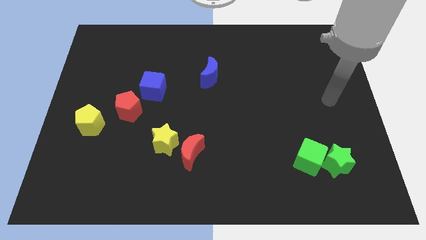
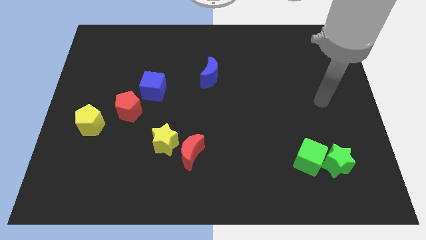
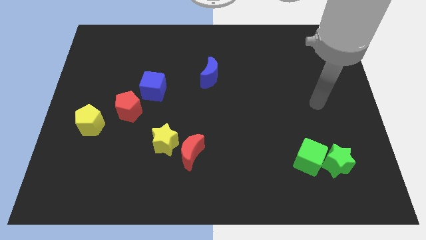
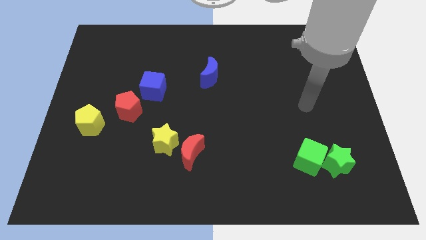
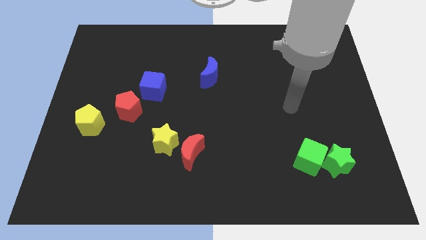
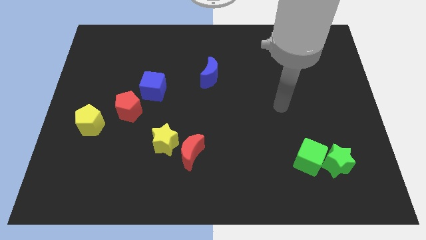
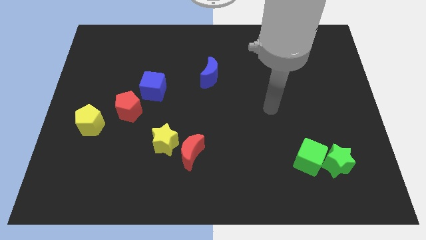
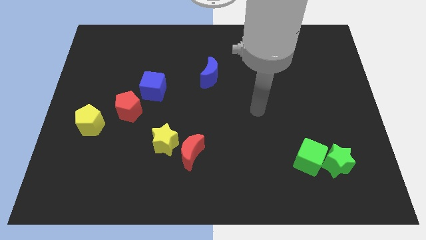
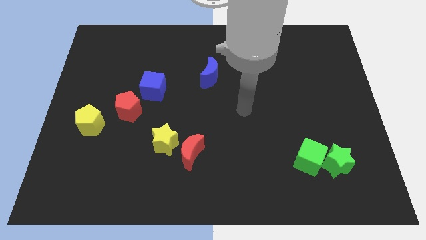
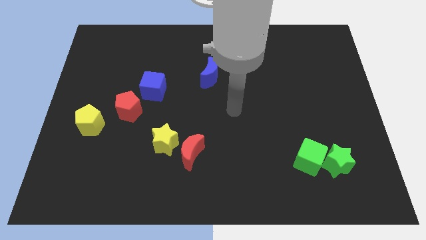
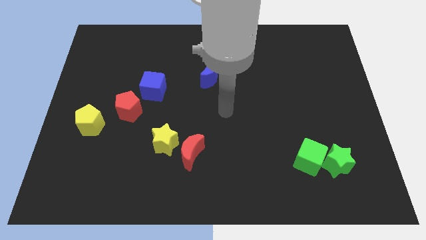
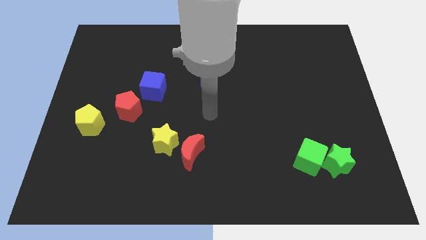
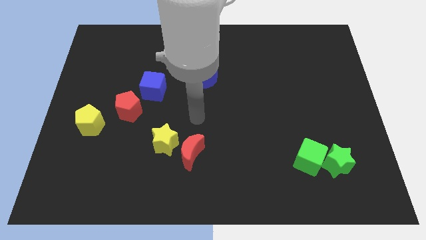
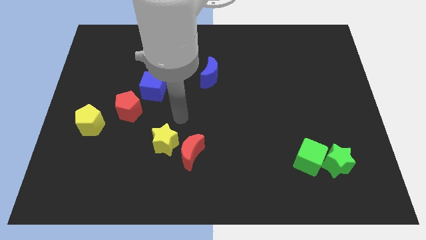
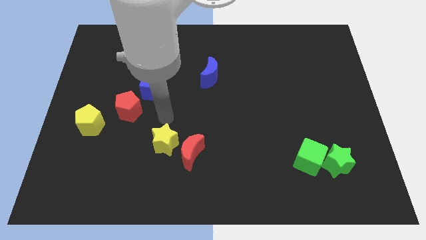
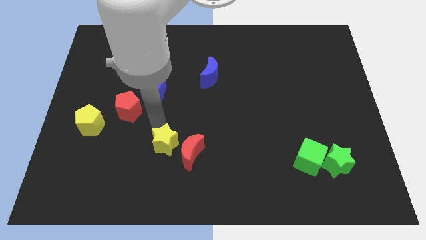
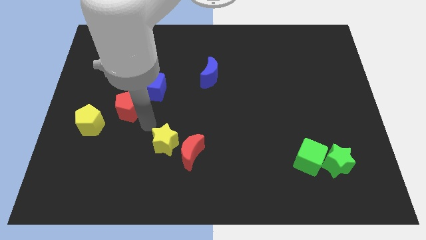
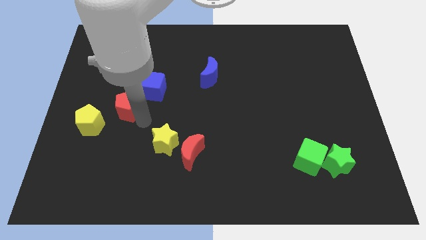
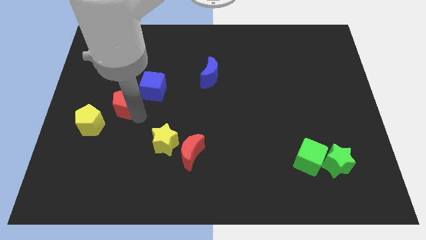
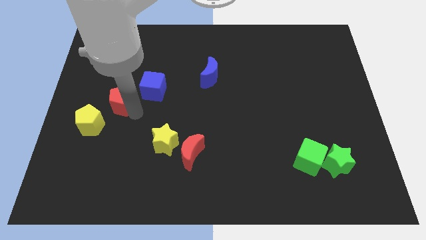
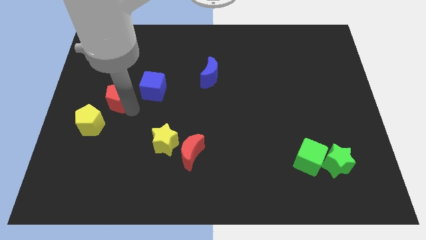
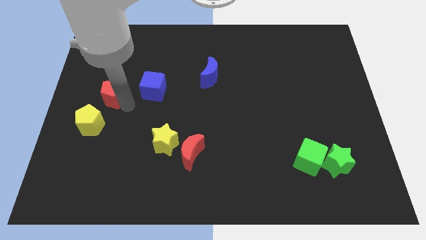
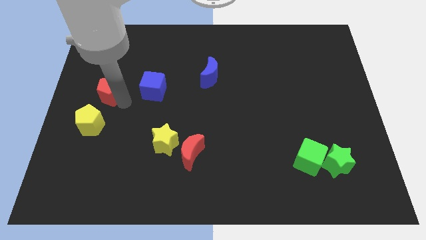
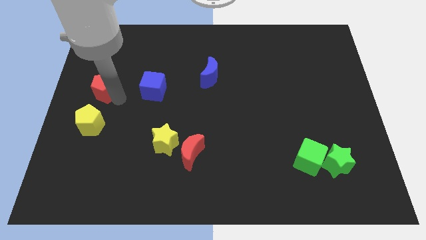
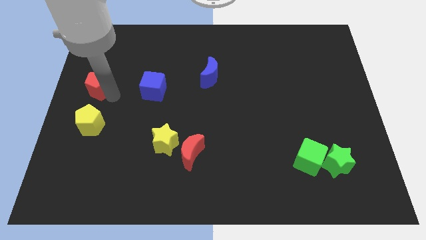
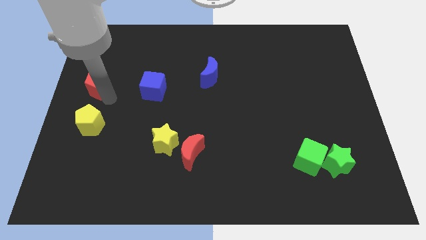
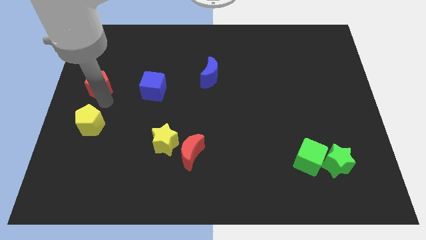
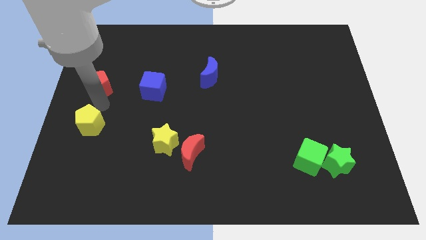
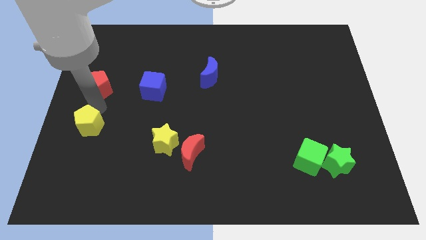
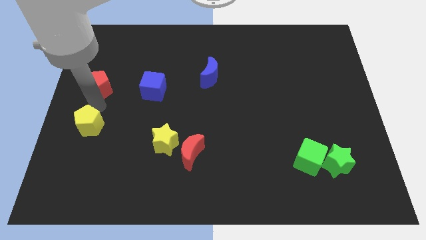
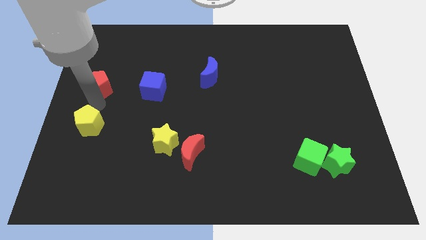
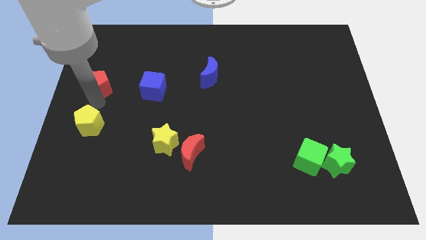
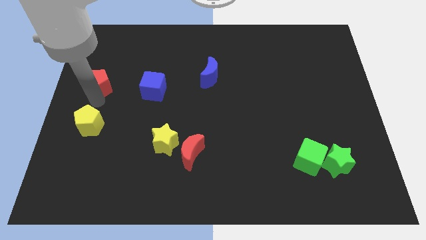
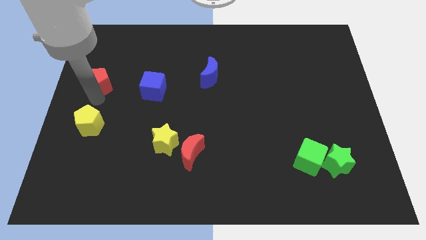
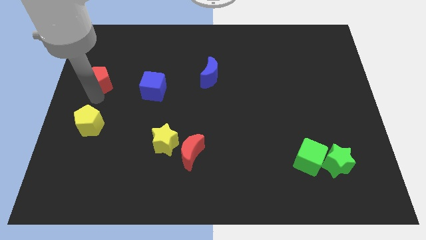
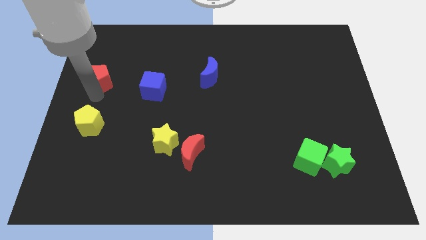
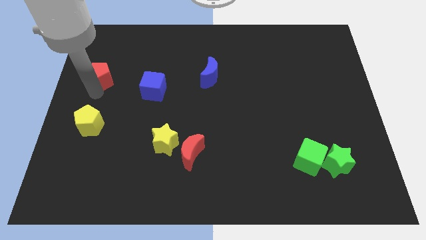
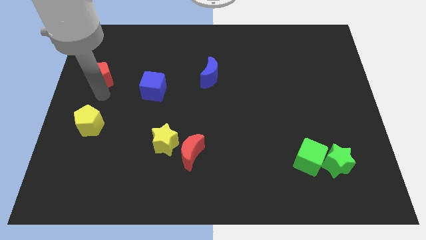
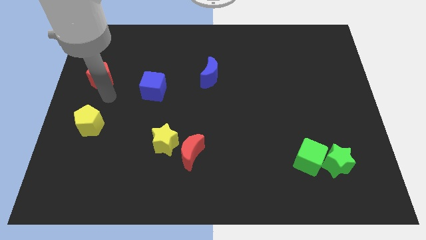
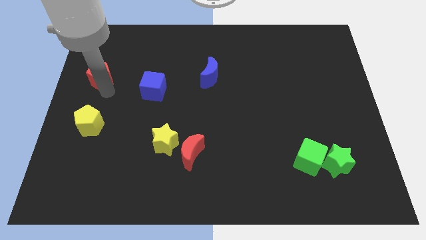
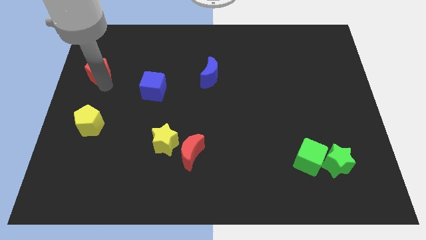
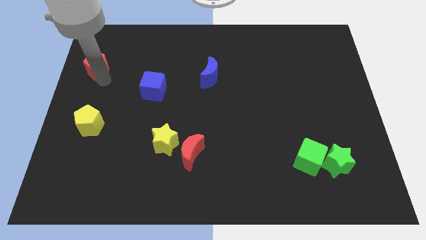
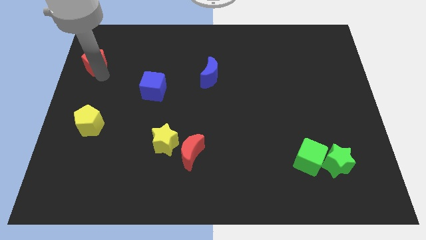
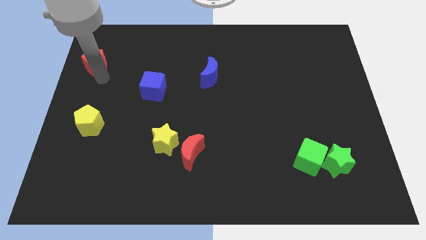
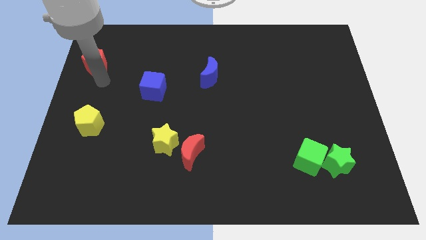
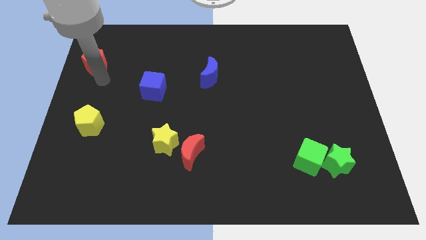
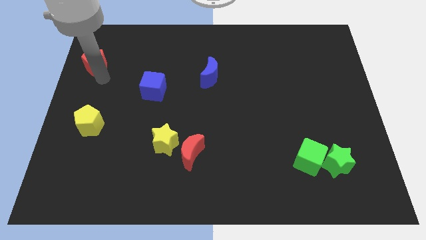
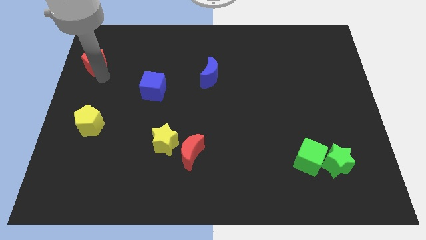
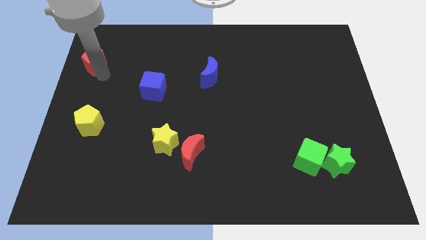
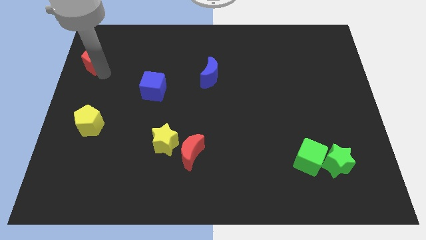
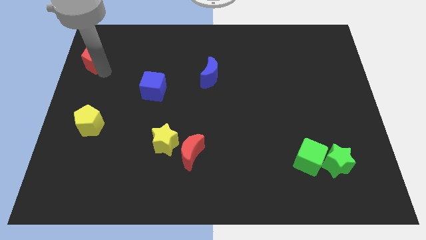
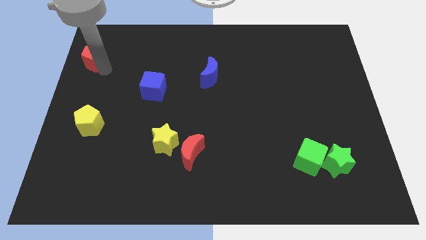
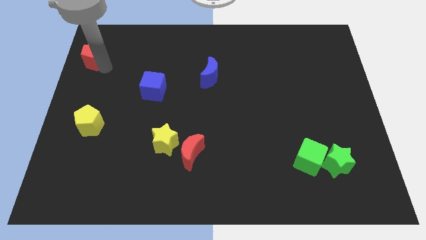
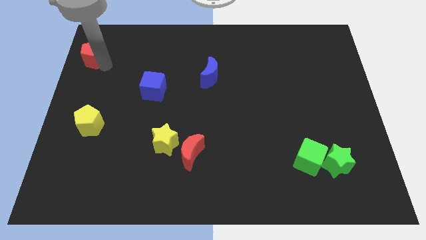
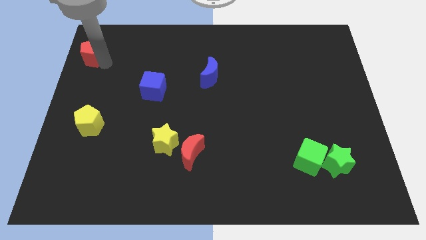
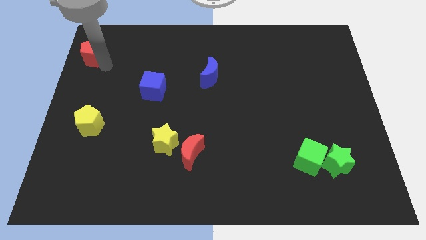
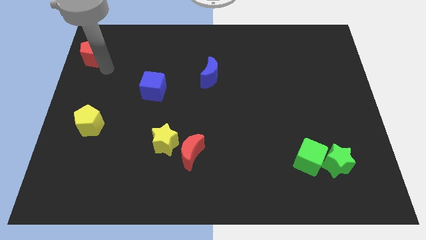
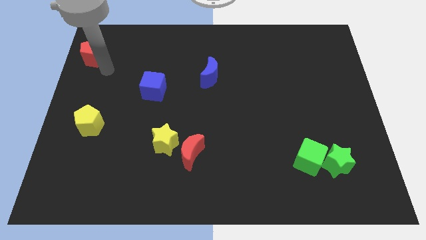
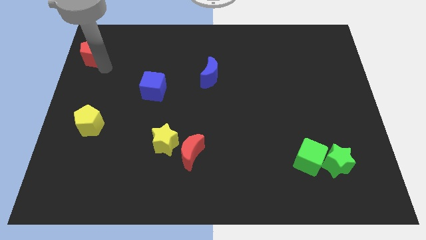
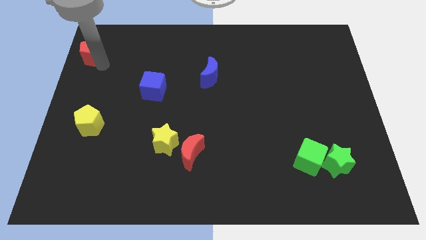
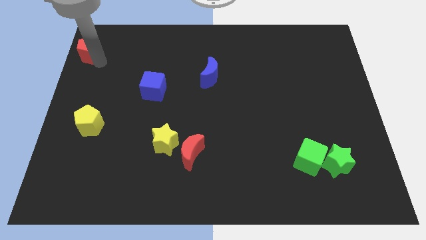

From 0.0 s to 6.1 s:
put the red pentagon to the top left

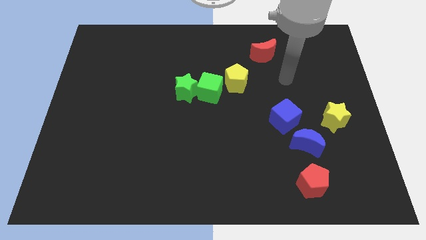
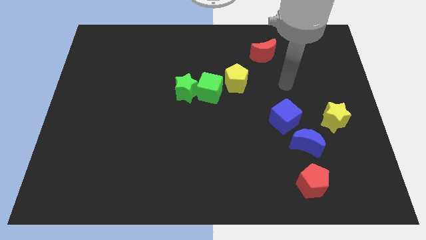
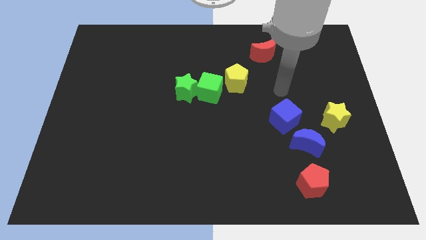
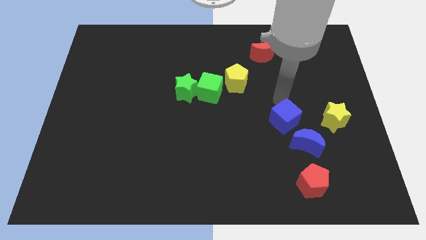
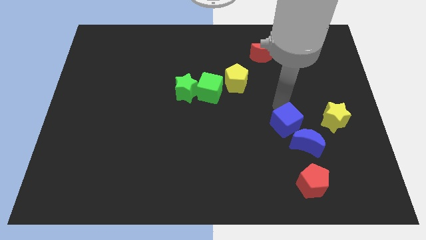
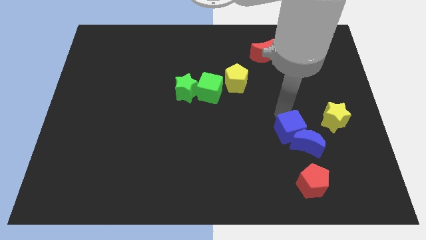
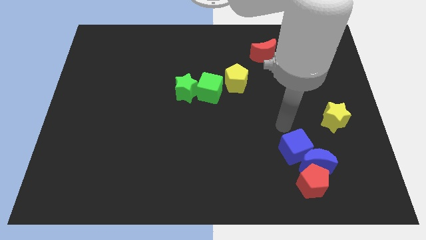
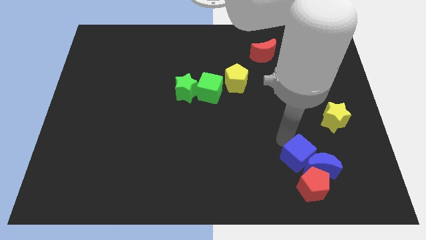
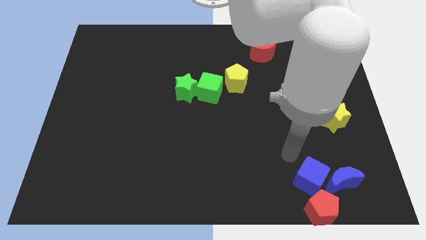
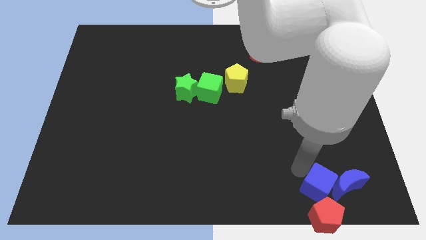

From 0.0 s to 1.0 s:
move the blue moon to the lower right corner
